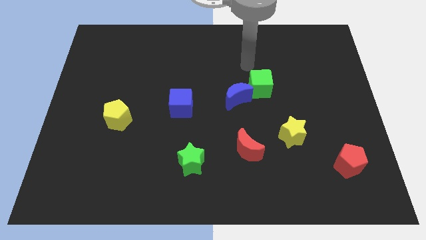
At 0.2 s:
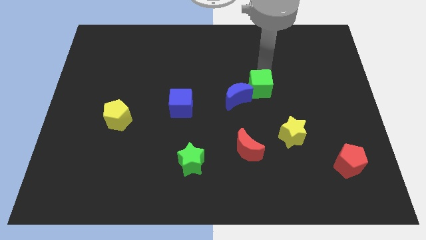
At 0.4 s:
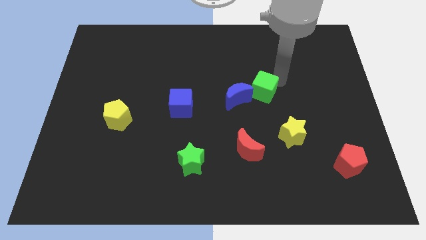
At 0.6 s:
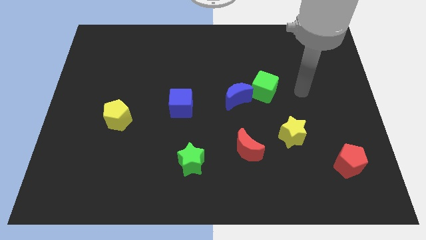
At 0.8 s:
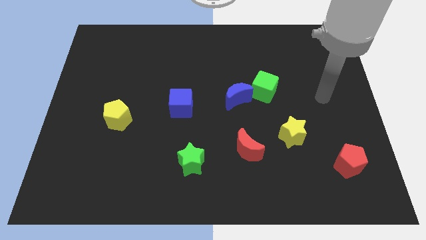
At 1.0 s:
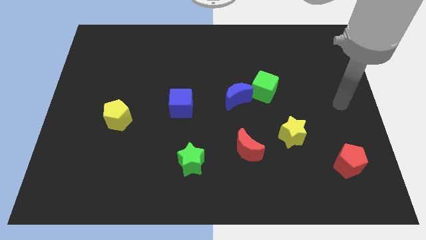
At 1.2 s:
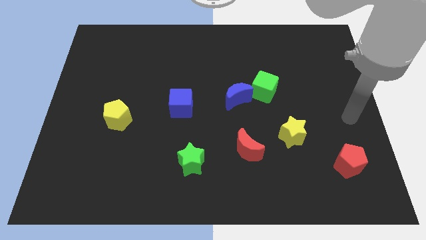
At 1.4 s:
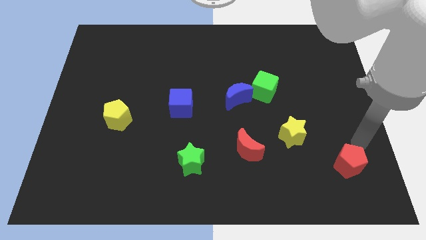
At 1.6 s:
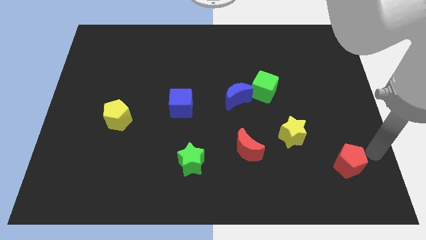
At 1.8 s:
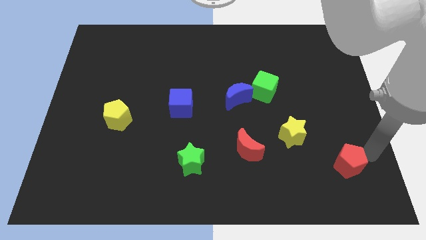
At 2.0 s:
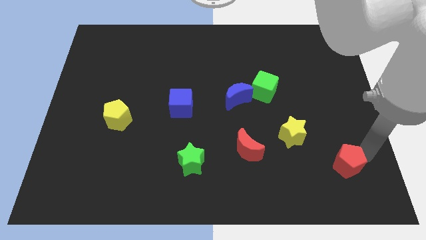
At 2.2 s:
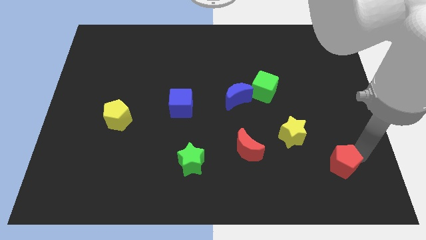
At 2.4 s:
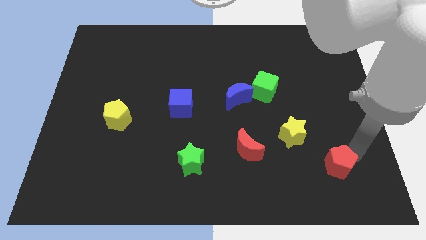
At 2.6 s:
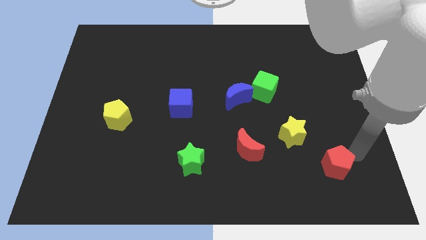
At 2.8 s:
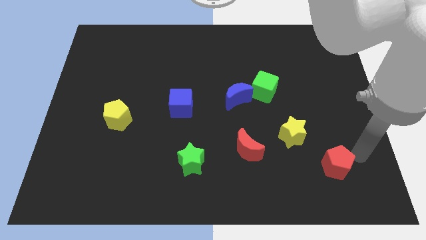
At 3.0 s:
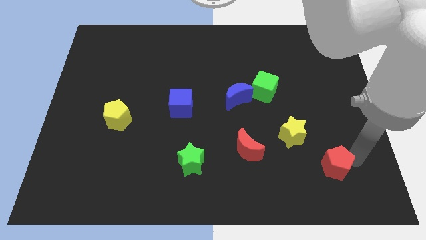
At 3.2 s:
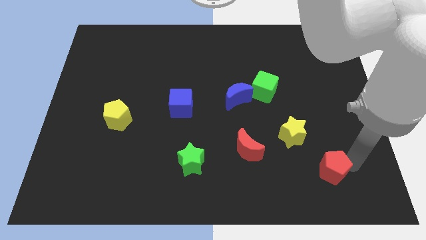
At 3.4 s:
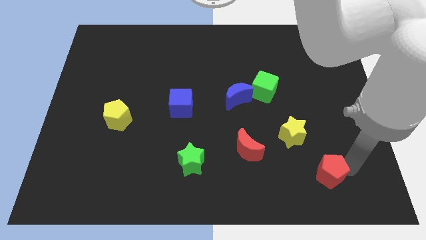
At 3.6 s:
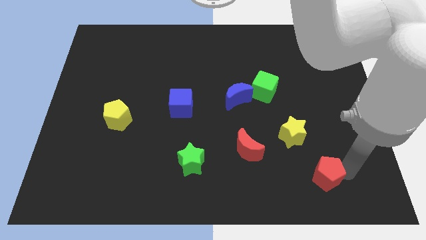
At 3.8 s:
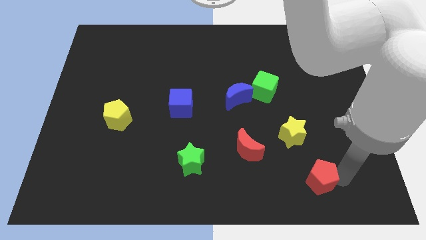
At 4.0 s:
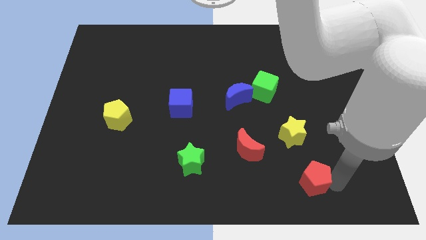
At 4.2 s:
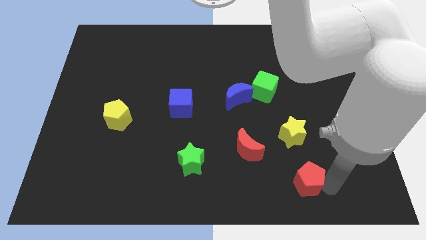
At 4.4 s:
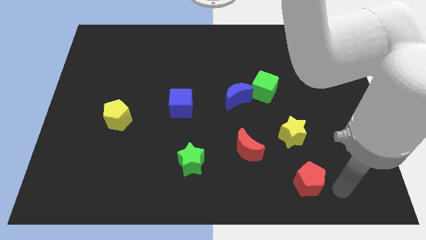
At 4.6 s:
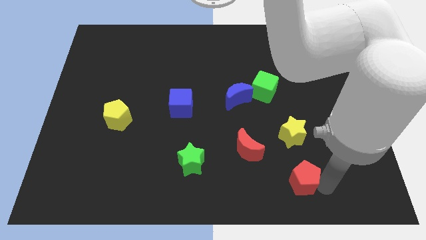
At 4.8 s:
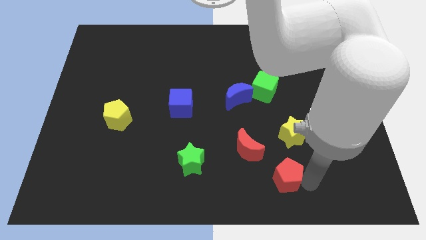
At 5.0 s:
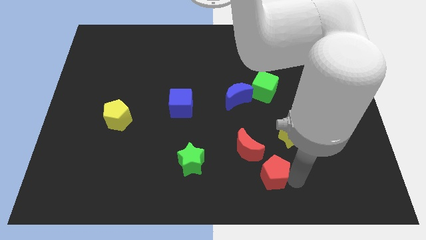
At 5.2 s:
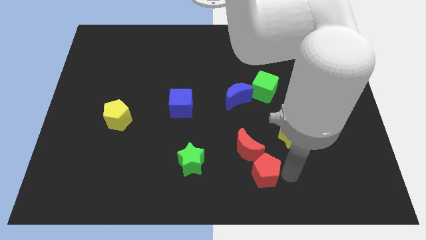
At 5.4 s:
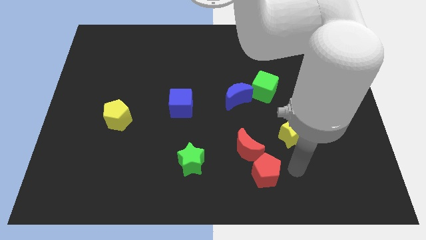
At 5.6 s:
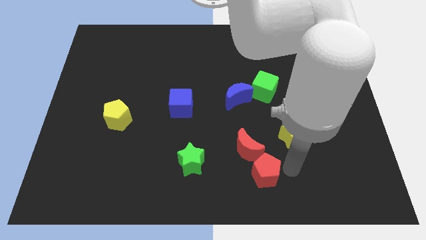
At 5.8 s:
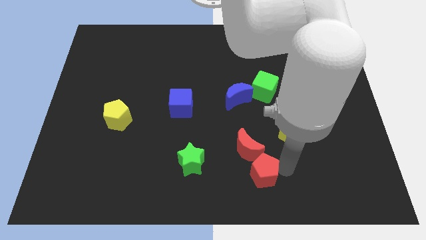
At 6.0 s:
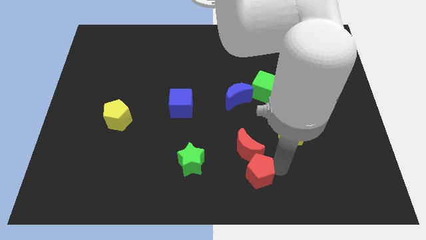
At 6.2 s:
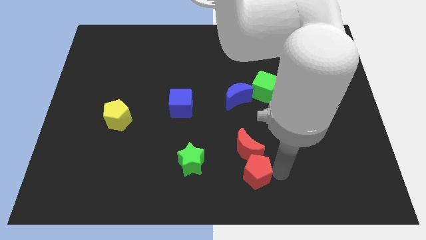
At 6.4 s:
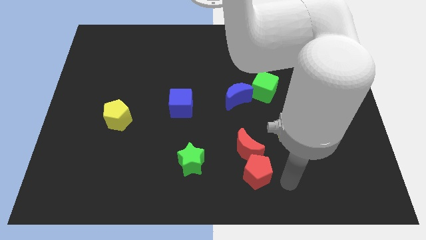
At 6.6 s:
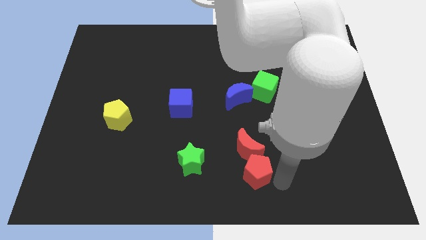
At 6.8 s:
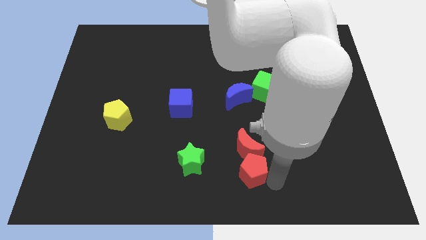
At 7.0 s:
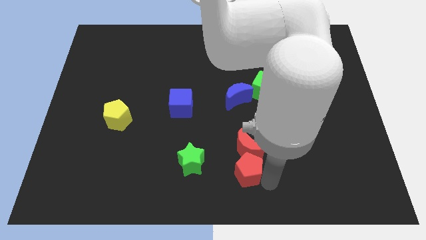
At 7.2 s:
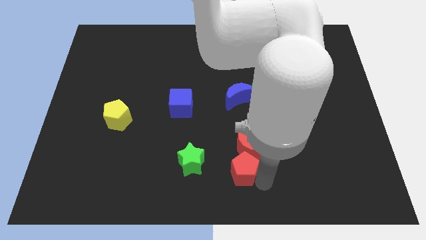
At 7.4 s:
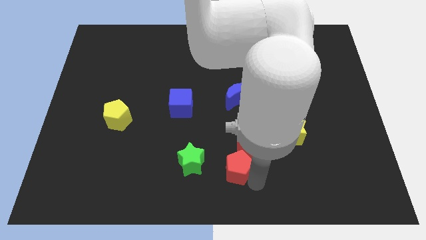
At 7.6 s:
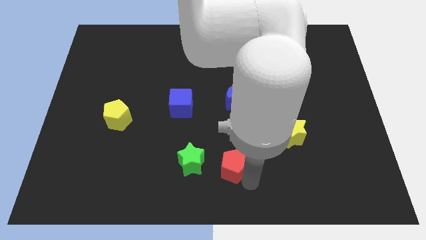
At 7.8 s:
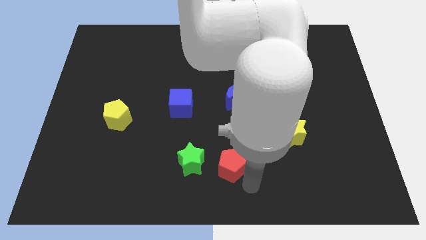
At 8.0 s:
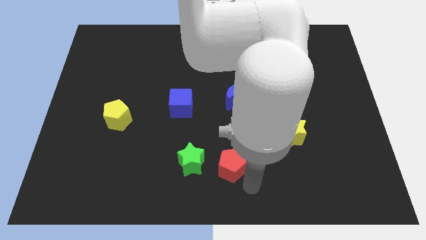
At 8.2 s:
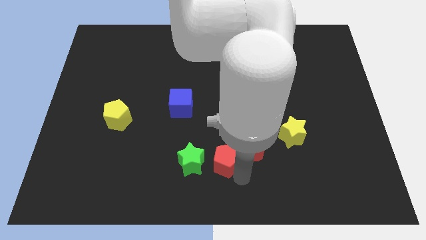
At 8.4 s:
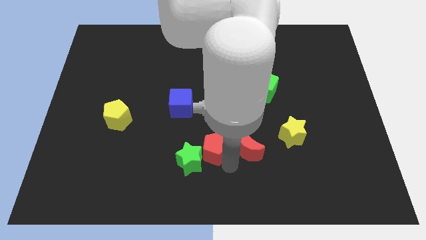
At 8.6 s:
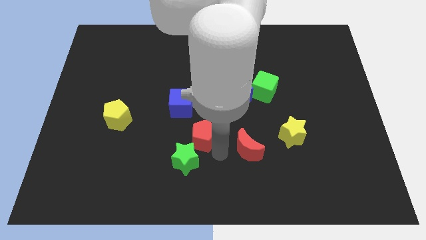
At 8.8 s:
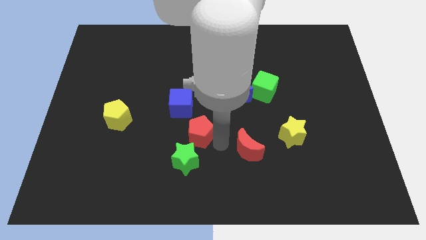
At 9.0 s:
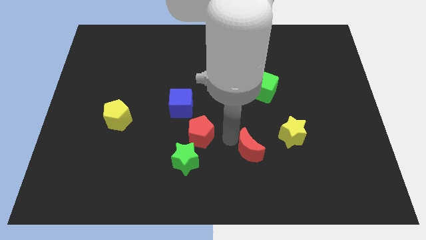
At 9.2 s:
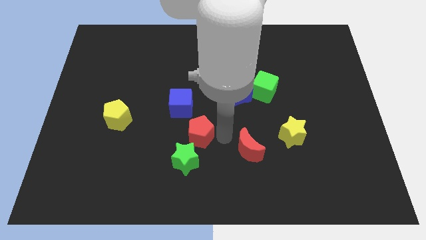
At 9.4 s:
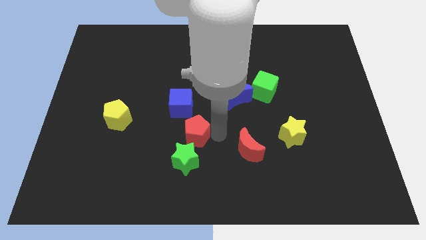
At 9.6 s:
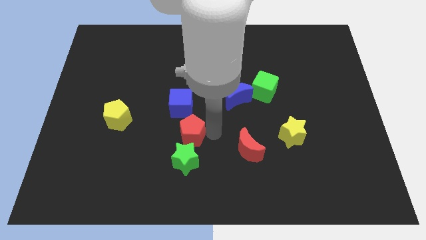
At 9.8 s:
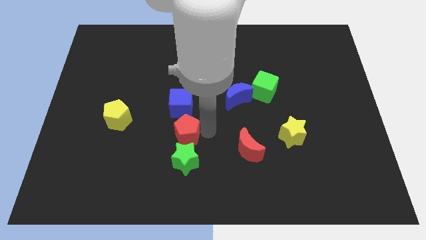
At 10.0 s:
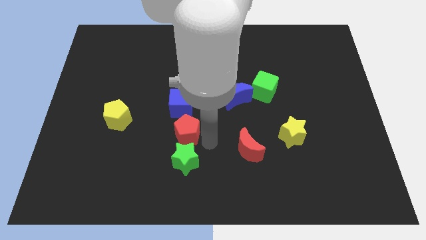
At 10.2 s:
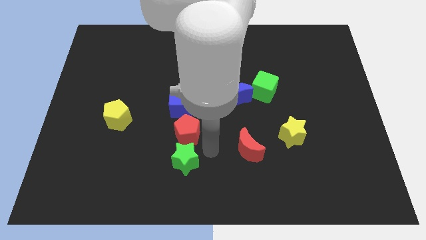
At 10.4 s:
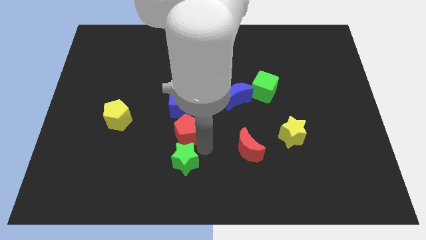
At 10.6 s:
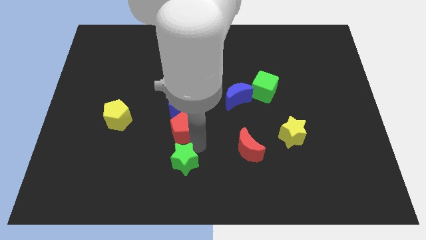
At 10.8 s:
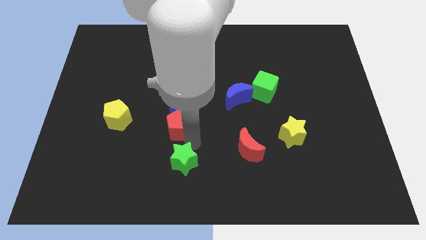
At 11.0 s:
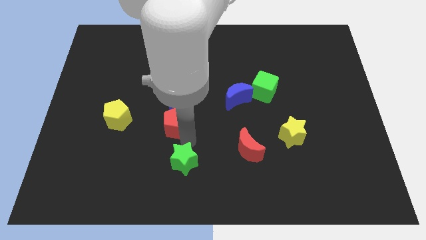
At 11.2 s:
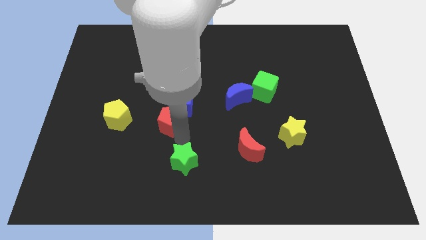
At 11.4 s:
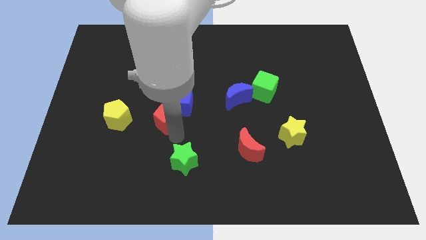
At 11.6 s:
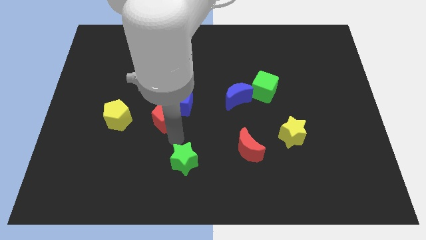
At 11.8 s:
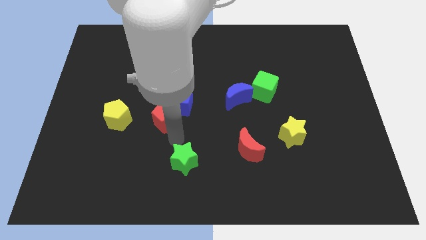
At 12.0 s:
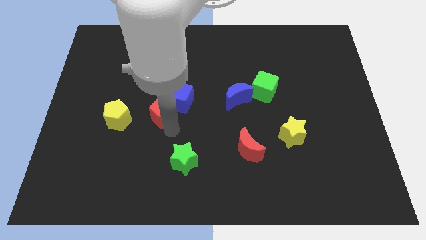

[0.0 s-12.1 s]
slide the red pentagon left of the blue cube

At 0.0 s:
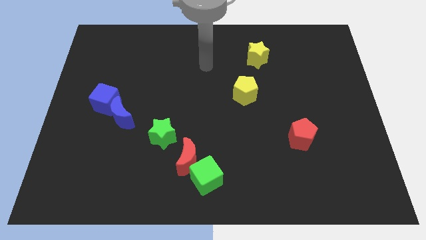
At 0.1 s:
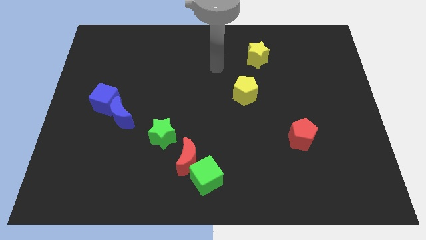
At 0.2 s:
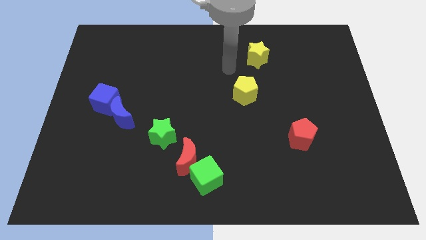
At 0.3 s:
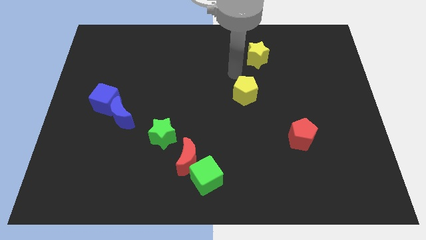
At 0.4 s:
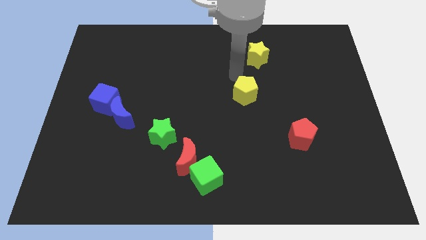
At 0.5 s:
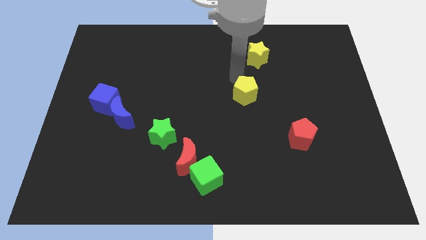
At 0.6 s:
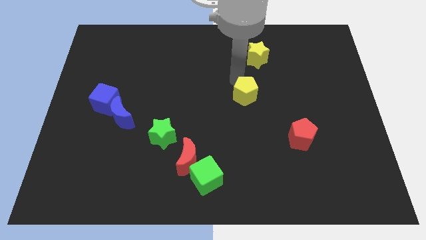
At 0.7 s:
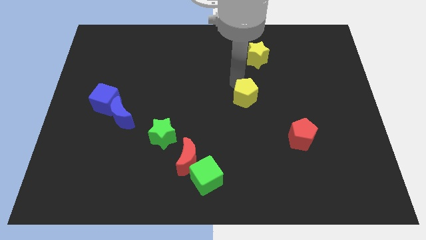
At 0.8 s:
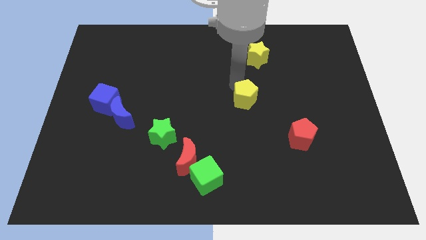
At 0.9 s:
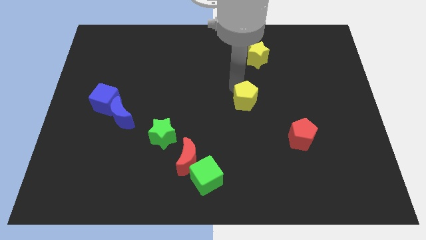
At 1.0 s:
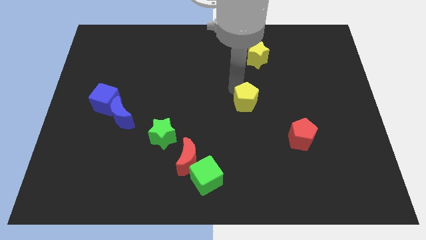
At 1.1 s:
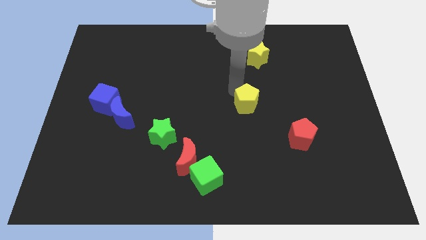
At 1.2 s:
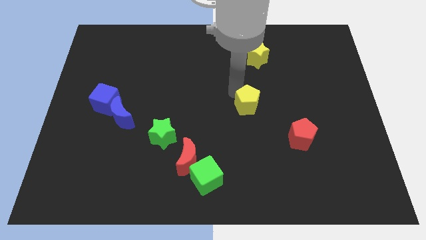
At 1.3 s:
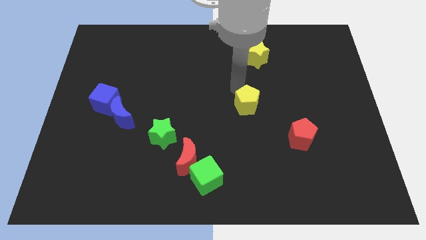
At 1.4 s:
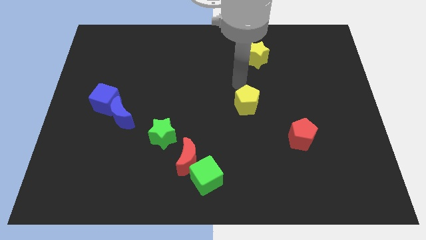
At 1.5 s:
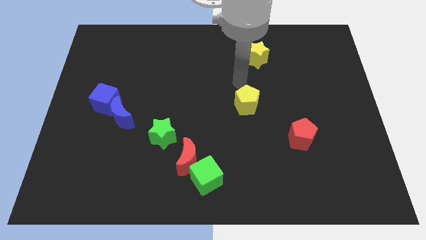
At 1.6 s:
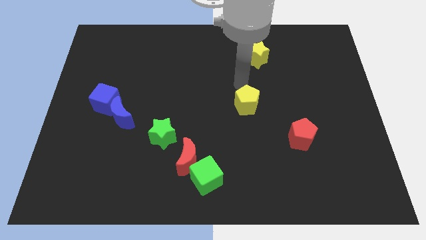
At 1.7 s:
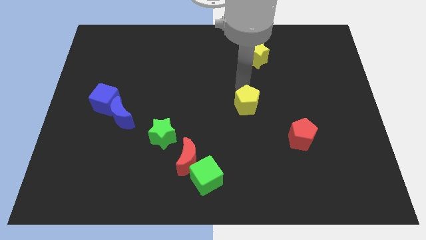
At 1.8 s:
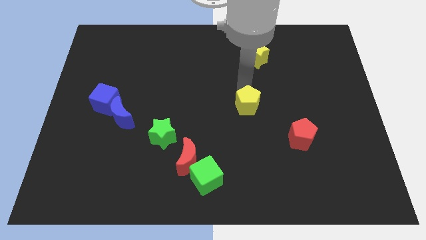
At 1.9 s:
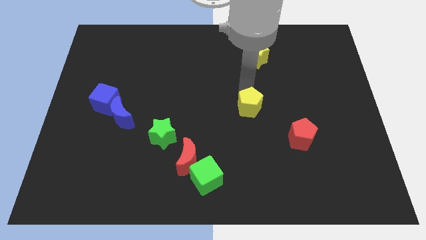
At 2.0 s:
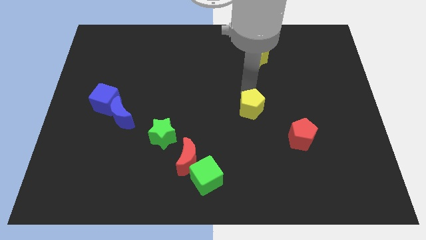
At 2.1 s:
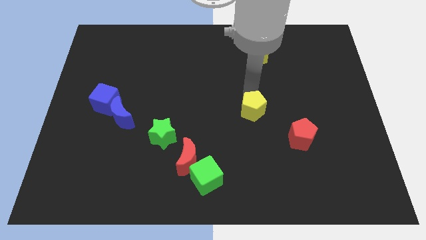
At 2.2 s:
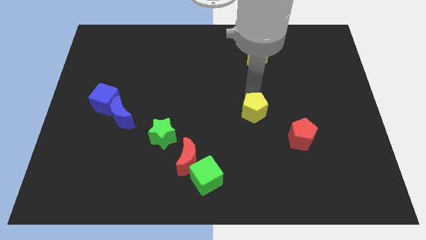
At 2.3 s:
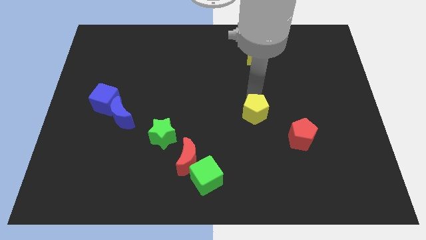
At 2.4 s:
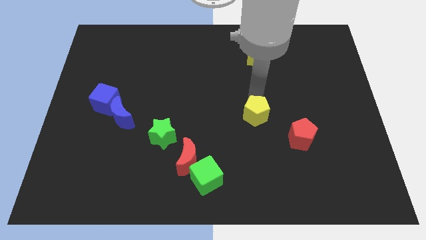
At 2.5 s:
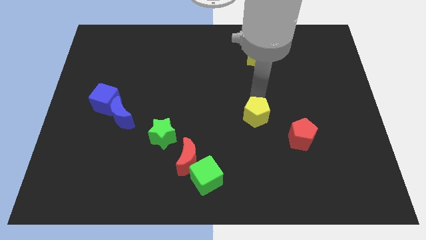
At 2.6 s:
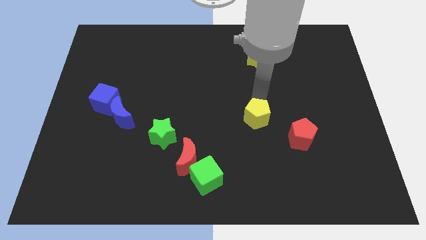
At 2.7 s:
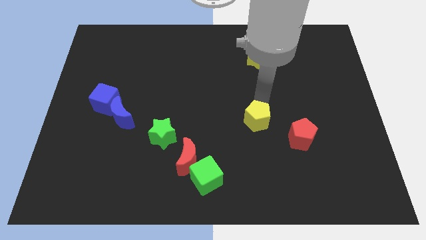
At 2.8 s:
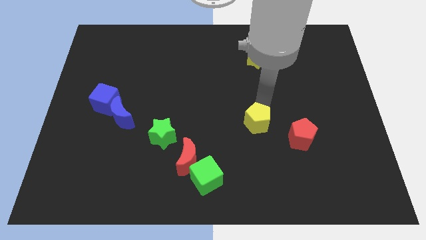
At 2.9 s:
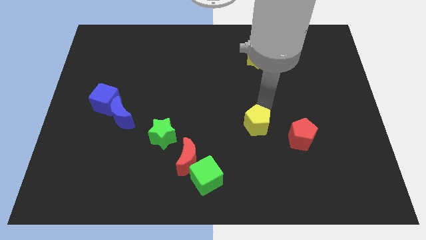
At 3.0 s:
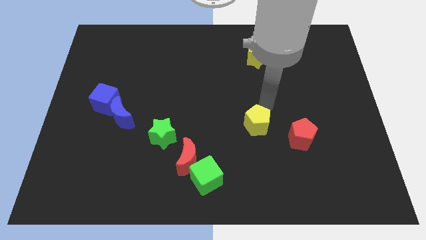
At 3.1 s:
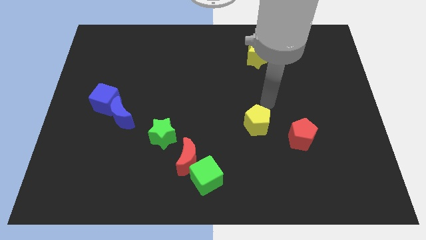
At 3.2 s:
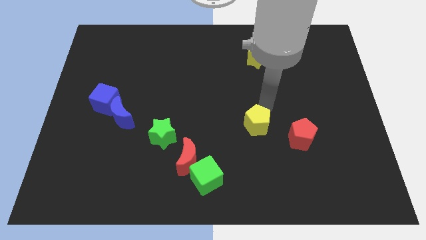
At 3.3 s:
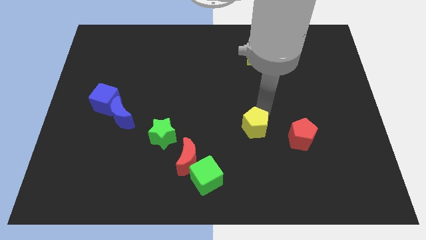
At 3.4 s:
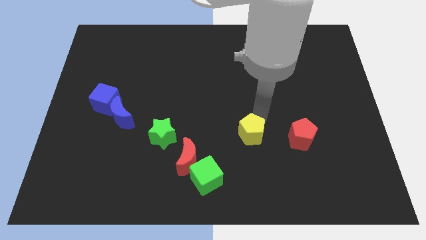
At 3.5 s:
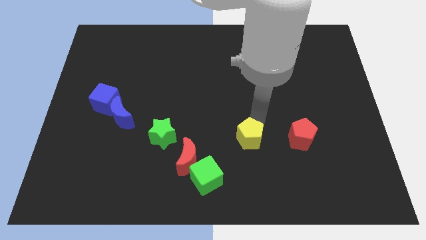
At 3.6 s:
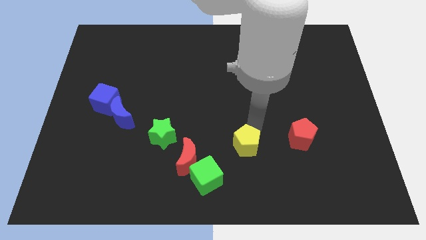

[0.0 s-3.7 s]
slide the yellow pentagon right of the red moon
